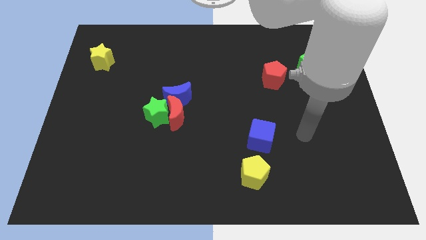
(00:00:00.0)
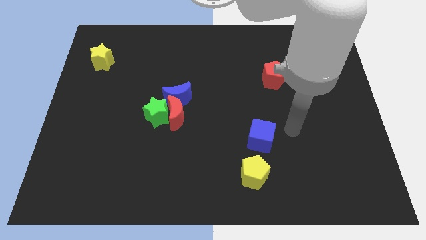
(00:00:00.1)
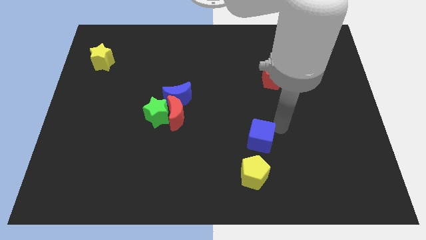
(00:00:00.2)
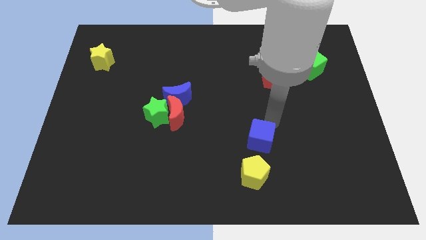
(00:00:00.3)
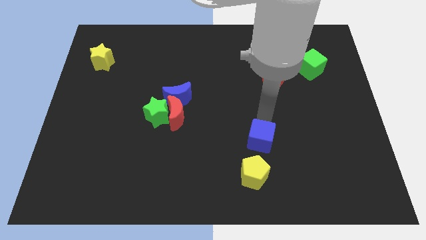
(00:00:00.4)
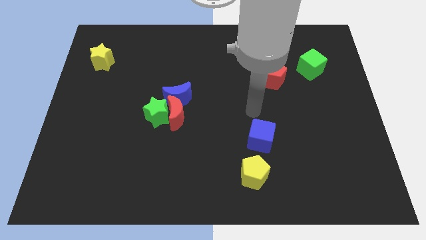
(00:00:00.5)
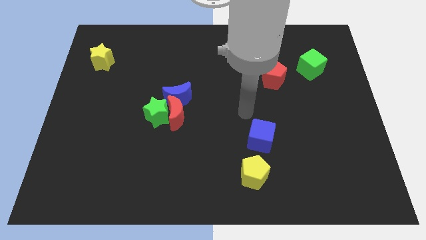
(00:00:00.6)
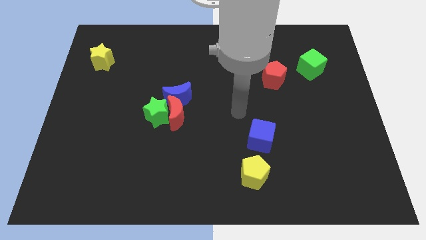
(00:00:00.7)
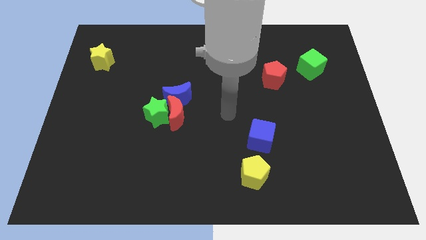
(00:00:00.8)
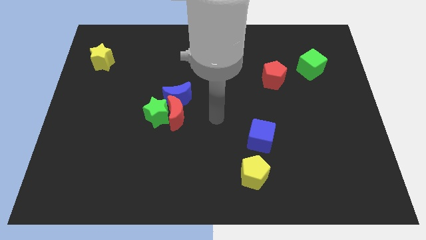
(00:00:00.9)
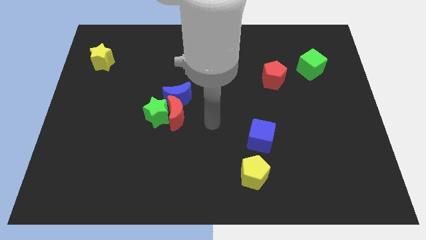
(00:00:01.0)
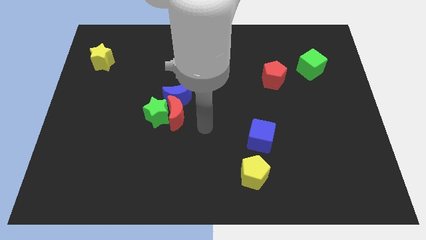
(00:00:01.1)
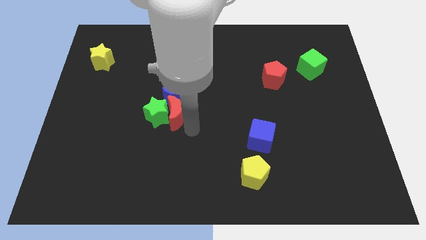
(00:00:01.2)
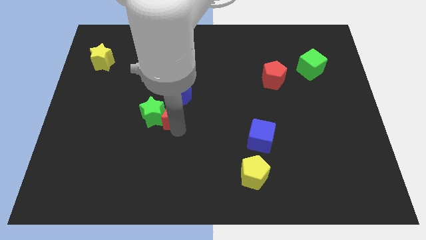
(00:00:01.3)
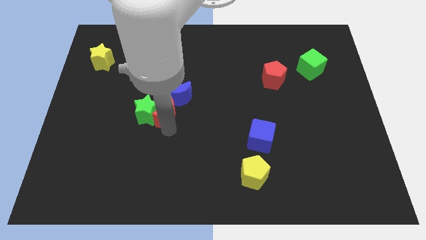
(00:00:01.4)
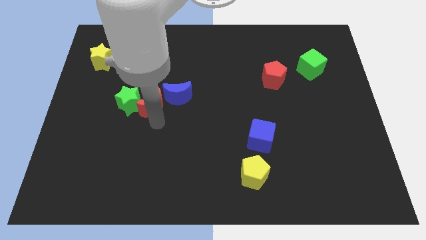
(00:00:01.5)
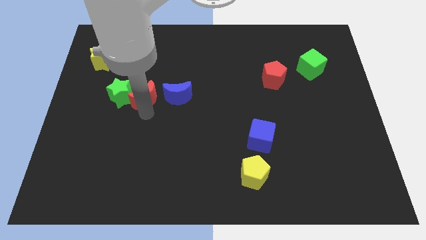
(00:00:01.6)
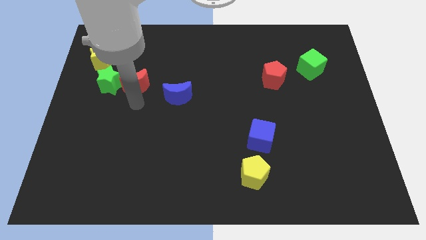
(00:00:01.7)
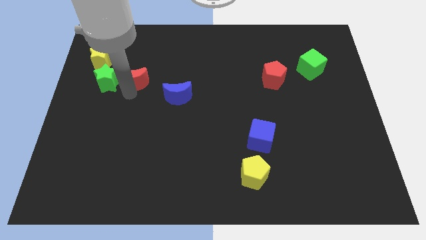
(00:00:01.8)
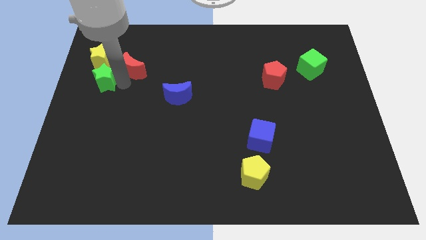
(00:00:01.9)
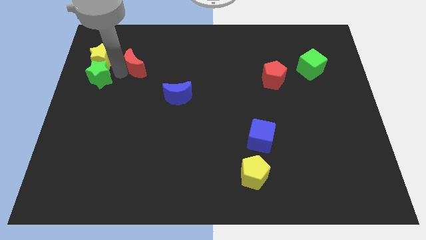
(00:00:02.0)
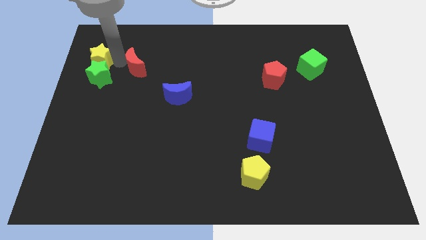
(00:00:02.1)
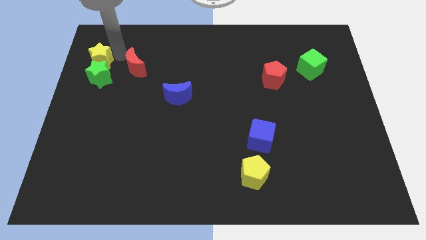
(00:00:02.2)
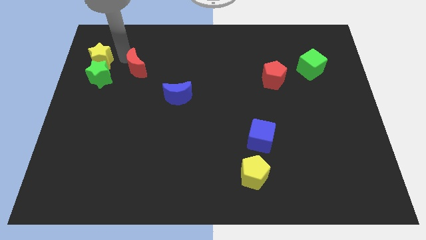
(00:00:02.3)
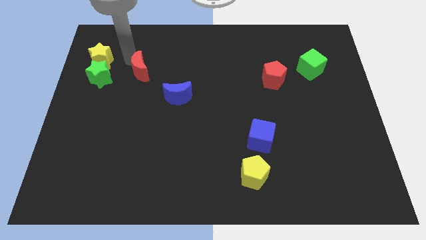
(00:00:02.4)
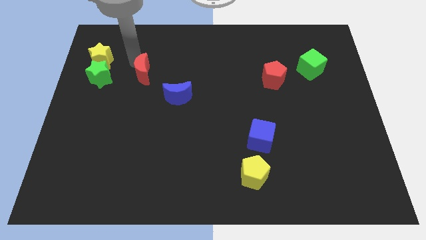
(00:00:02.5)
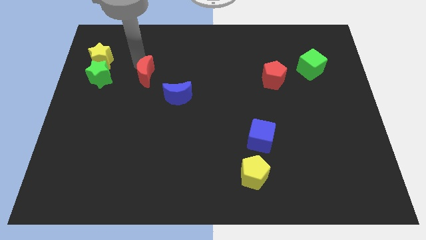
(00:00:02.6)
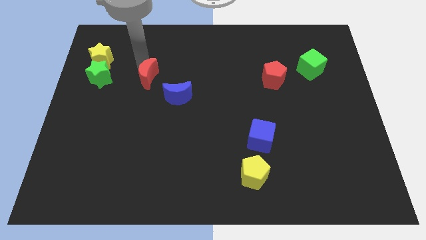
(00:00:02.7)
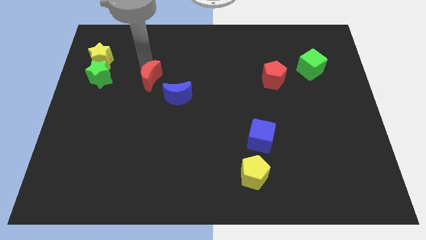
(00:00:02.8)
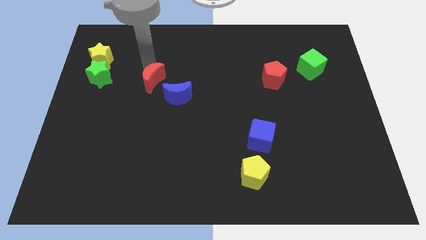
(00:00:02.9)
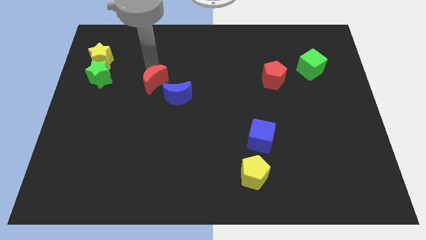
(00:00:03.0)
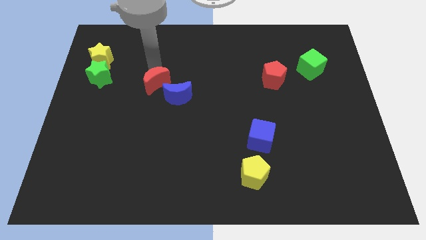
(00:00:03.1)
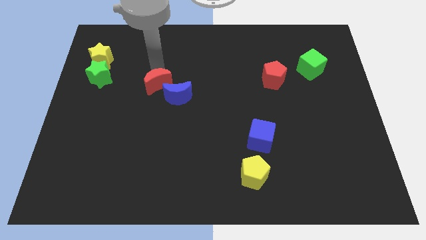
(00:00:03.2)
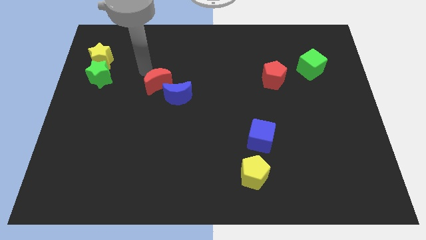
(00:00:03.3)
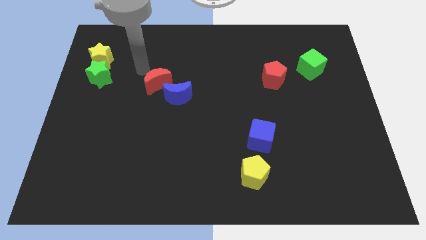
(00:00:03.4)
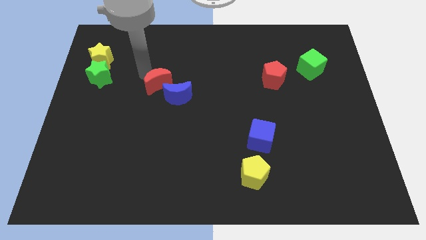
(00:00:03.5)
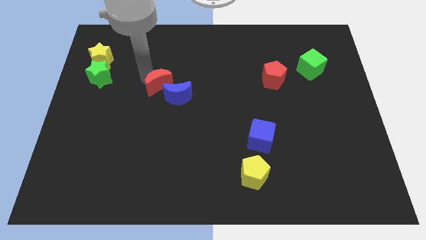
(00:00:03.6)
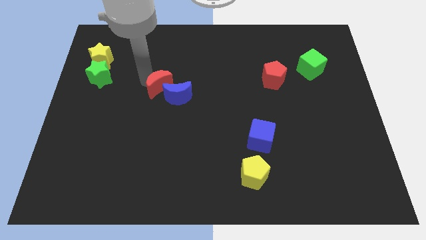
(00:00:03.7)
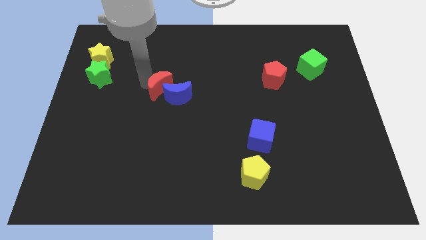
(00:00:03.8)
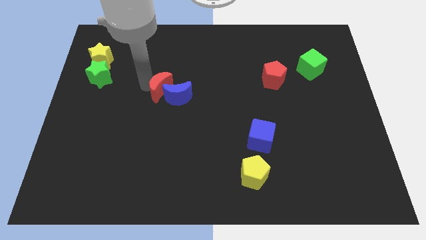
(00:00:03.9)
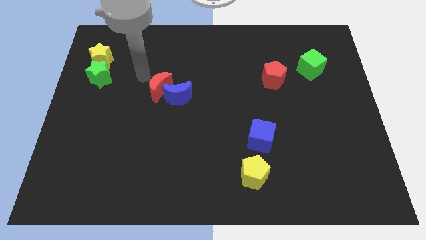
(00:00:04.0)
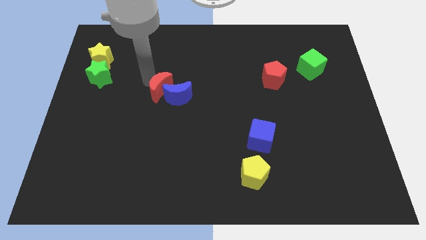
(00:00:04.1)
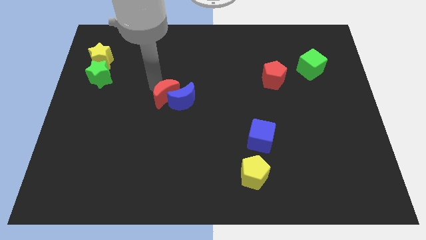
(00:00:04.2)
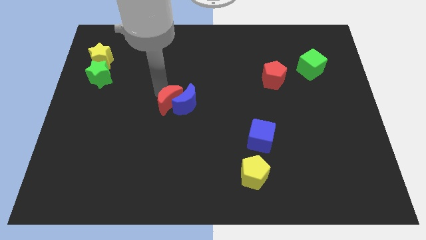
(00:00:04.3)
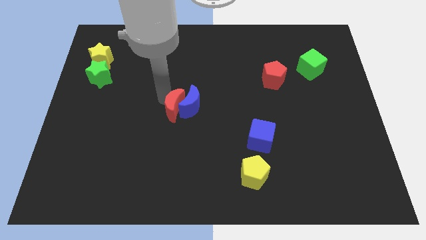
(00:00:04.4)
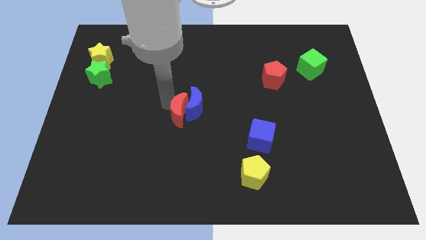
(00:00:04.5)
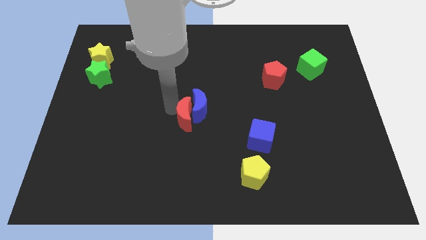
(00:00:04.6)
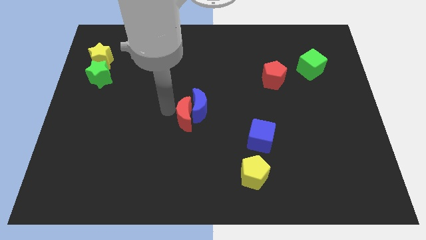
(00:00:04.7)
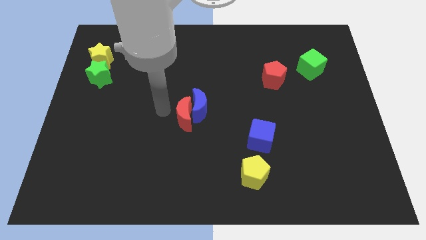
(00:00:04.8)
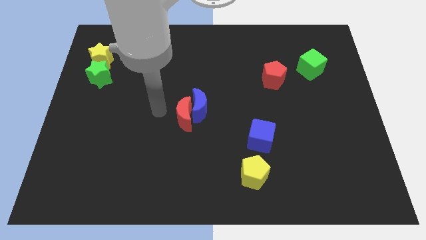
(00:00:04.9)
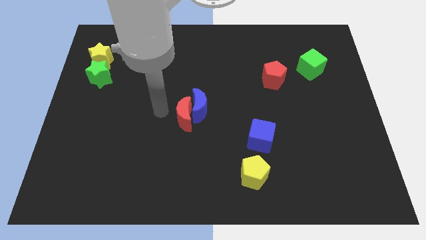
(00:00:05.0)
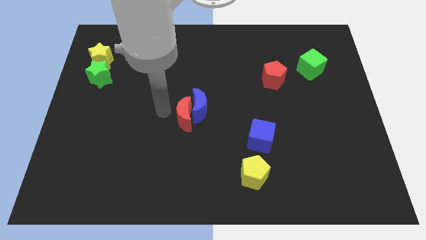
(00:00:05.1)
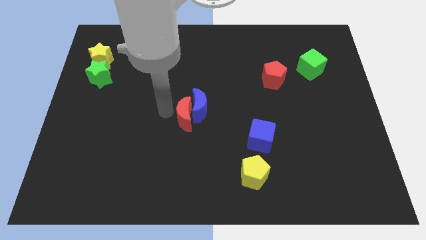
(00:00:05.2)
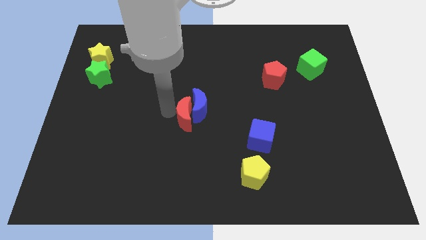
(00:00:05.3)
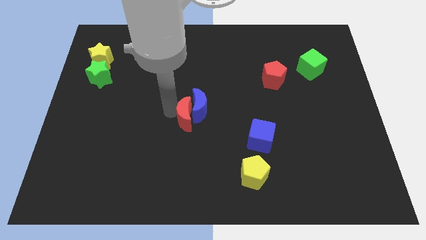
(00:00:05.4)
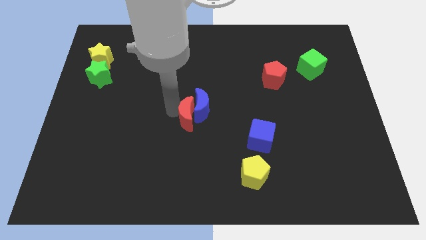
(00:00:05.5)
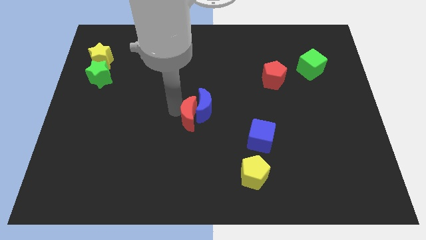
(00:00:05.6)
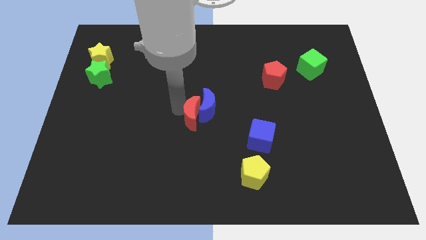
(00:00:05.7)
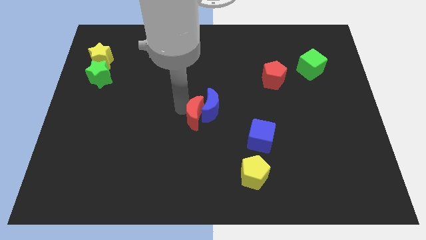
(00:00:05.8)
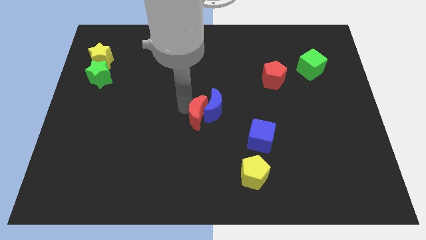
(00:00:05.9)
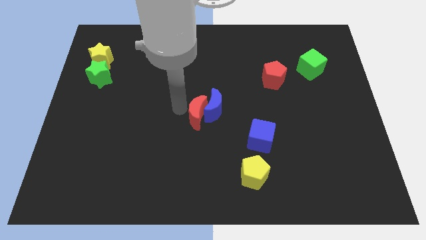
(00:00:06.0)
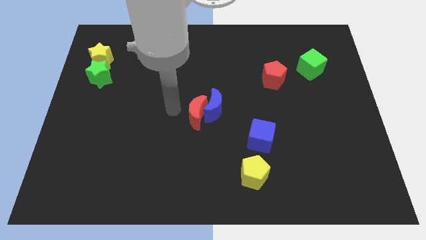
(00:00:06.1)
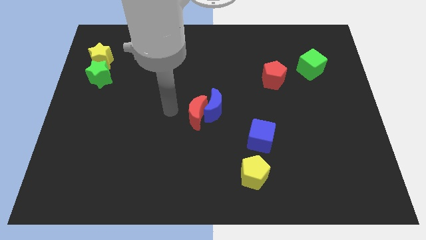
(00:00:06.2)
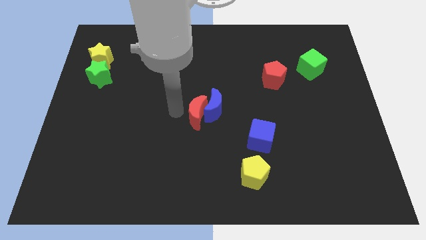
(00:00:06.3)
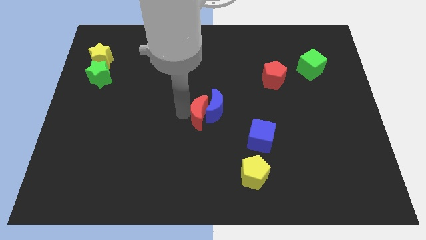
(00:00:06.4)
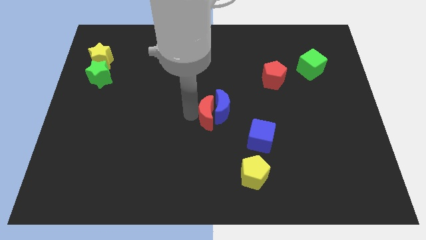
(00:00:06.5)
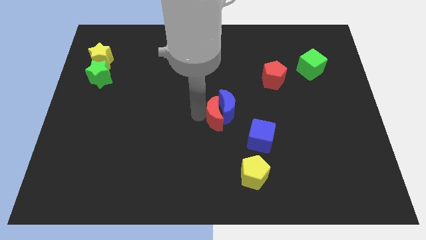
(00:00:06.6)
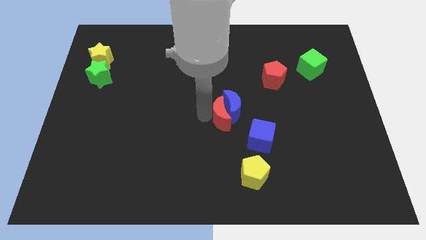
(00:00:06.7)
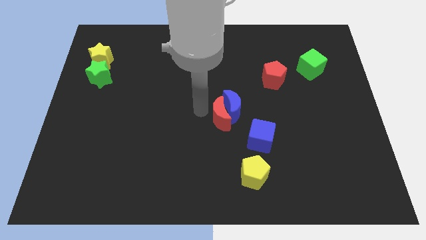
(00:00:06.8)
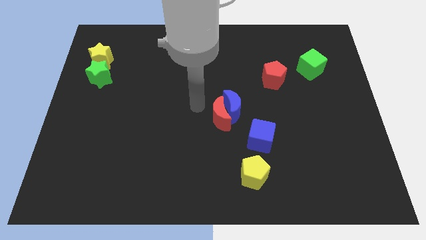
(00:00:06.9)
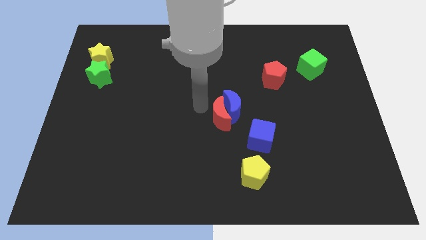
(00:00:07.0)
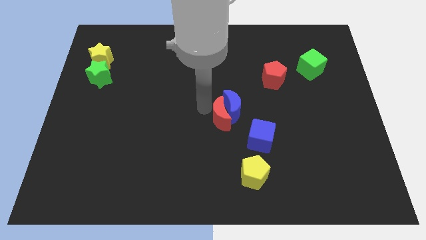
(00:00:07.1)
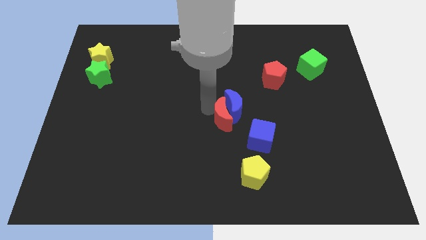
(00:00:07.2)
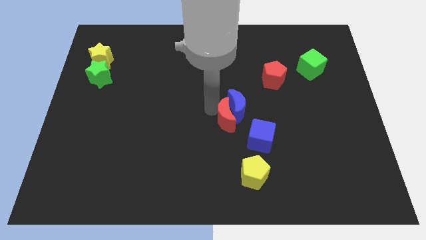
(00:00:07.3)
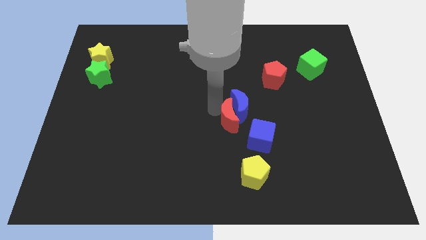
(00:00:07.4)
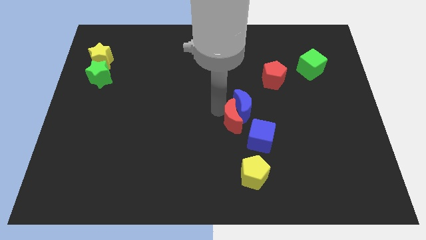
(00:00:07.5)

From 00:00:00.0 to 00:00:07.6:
slide the red moon to the top side of the yellow pentagon
